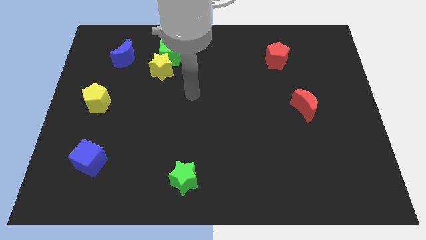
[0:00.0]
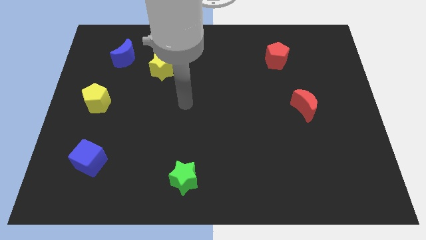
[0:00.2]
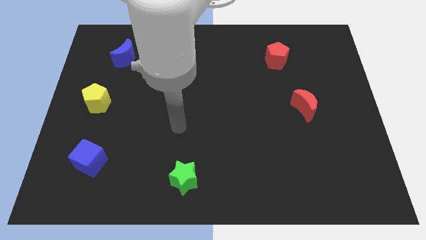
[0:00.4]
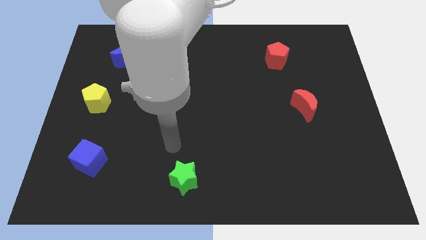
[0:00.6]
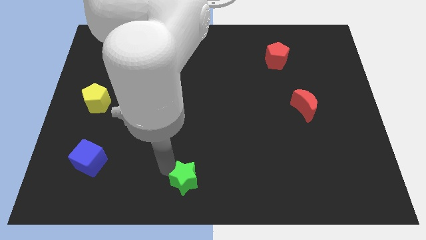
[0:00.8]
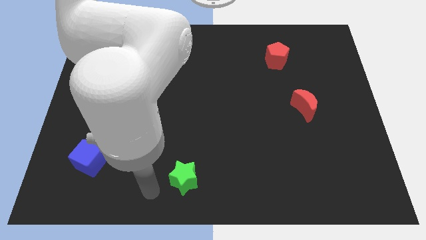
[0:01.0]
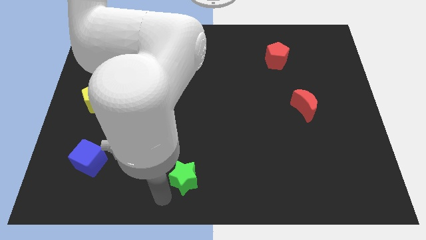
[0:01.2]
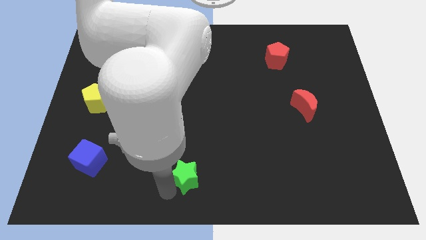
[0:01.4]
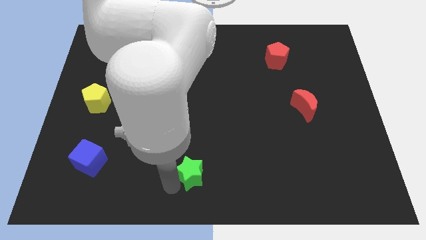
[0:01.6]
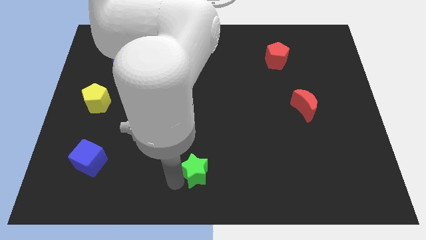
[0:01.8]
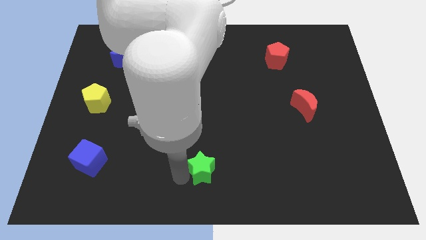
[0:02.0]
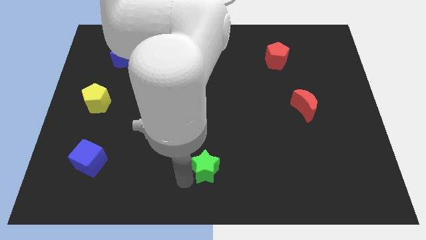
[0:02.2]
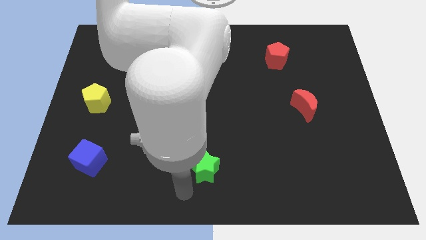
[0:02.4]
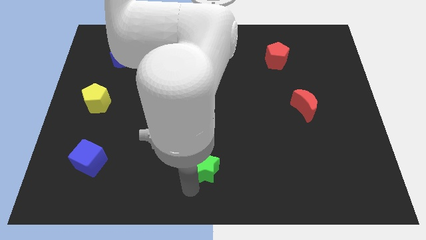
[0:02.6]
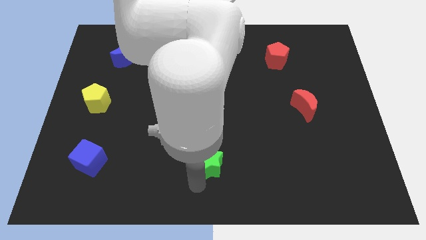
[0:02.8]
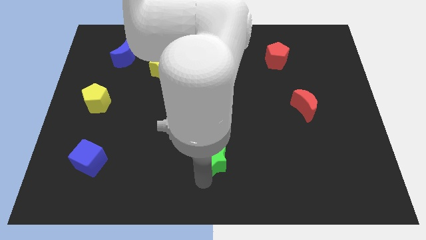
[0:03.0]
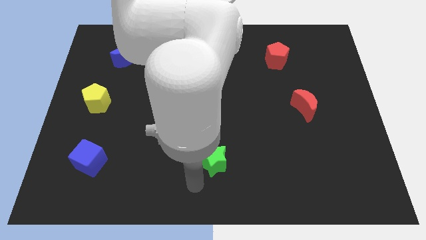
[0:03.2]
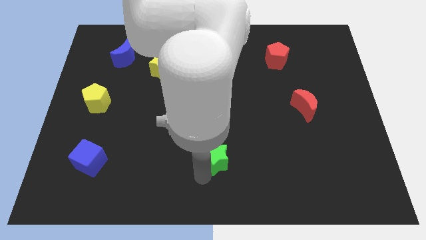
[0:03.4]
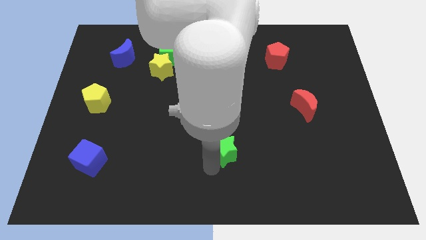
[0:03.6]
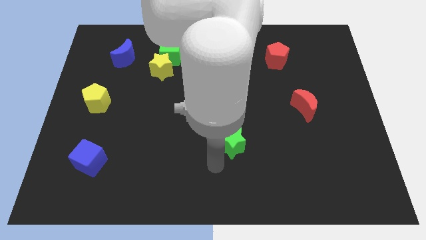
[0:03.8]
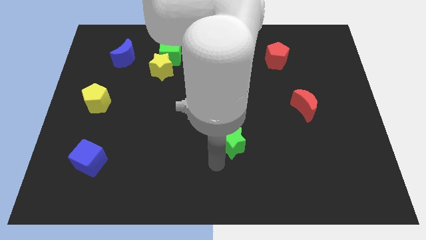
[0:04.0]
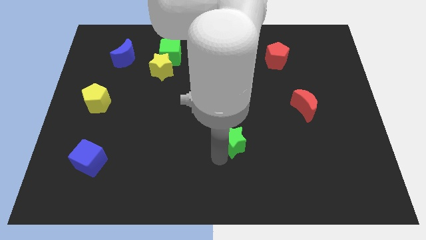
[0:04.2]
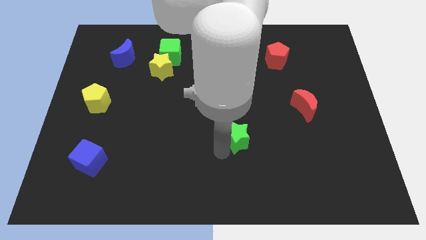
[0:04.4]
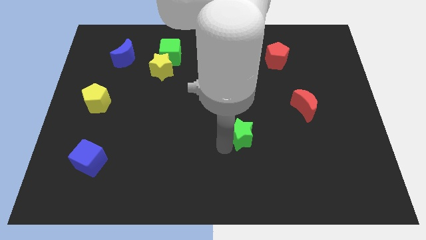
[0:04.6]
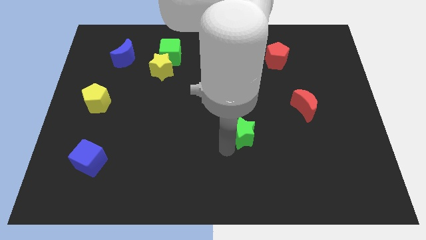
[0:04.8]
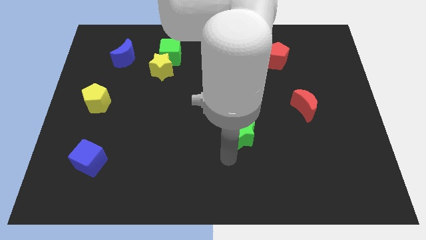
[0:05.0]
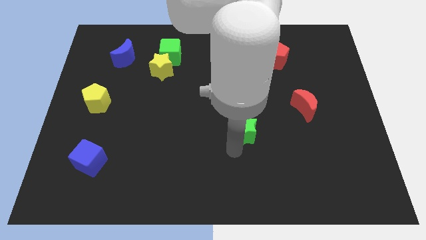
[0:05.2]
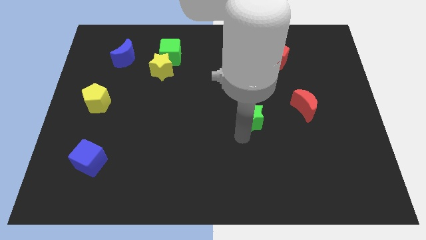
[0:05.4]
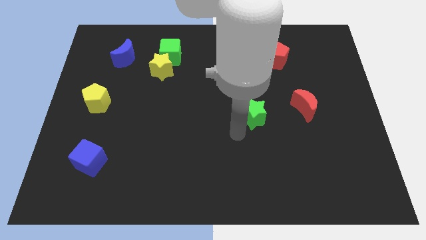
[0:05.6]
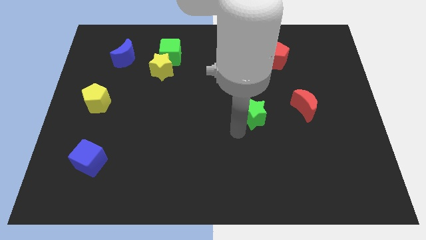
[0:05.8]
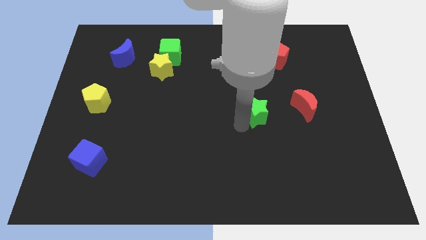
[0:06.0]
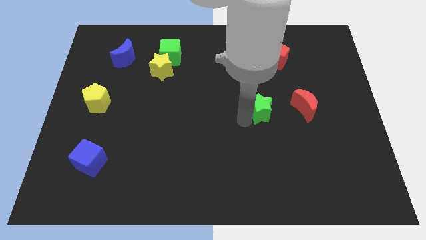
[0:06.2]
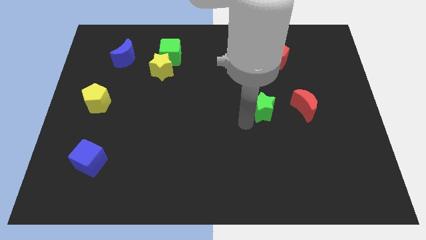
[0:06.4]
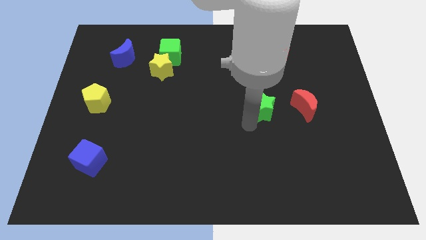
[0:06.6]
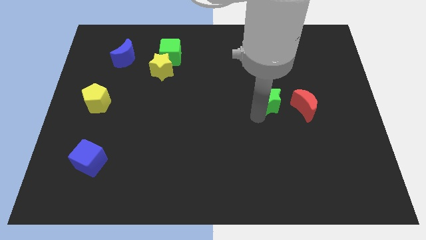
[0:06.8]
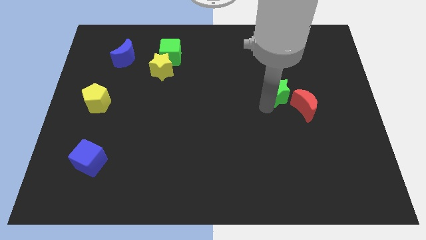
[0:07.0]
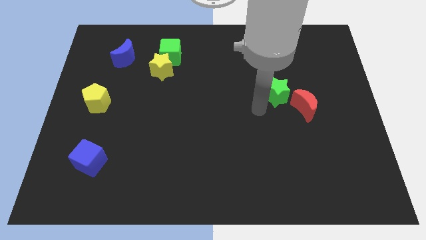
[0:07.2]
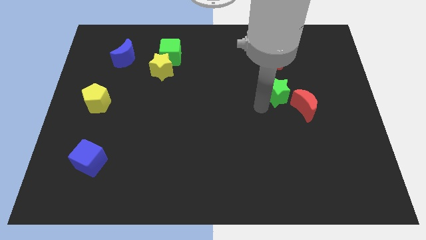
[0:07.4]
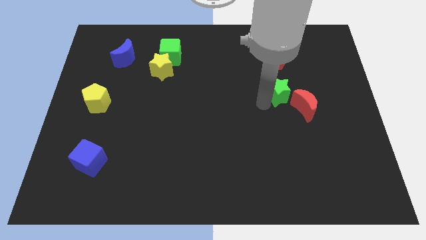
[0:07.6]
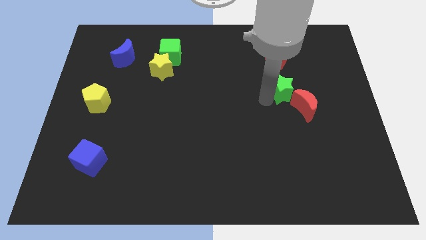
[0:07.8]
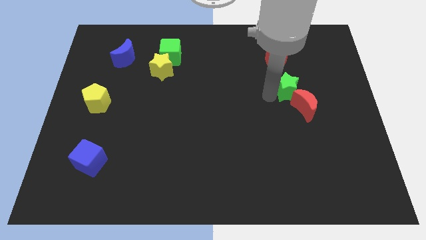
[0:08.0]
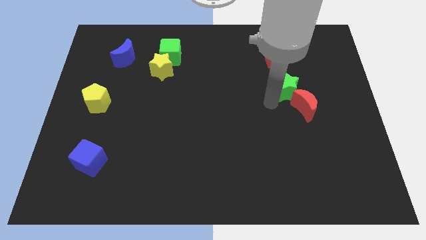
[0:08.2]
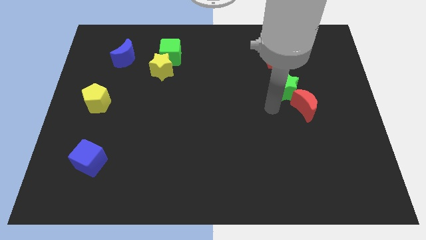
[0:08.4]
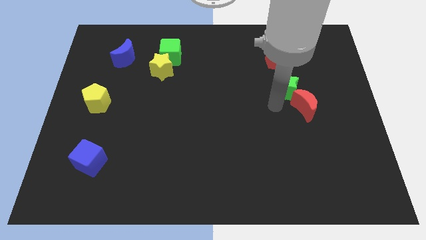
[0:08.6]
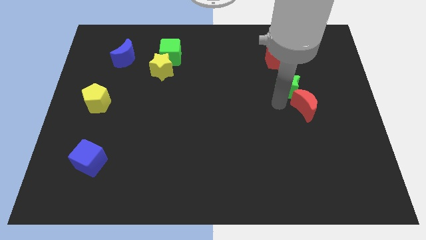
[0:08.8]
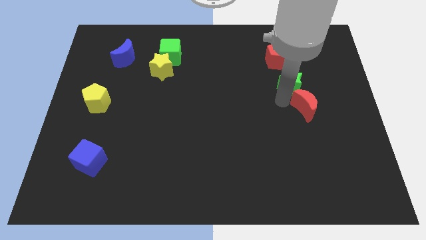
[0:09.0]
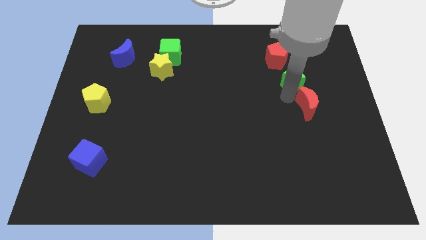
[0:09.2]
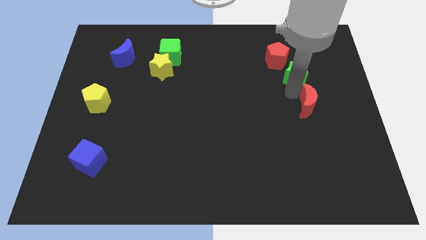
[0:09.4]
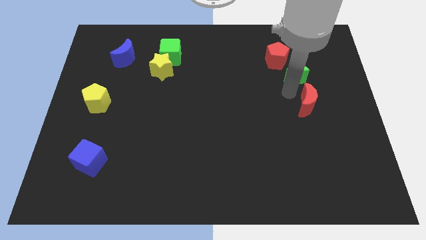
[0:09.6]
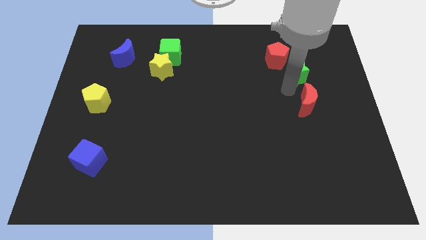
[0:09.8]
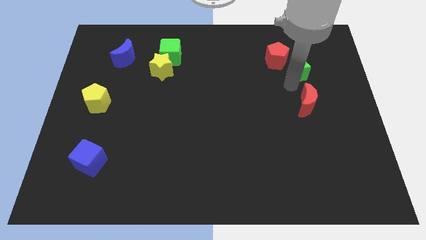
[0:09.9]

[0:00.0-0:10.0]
move the green star to the right side of the red pentagon

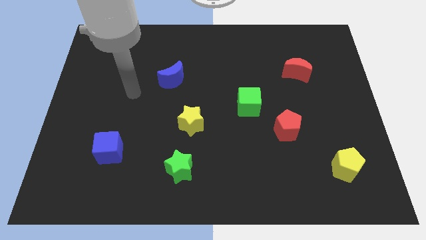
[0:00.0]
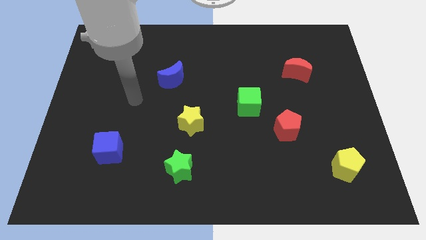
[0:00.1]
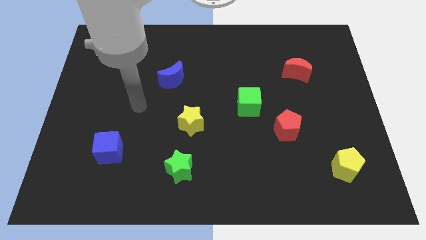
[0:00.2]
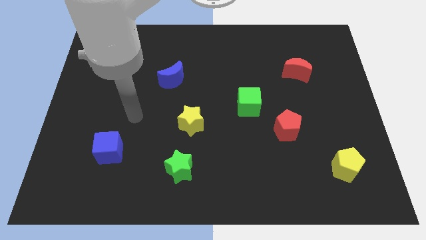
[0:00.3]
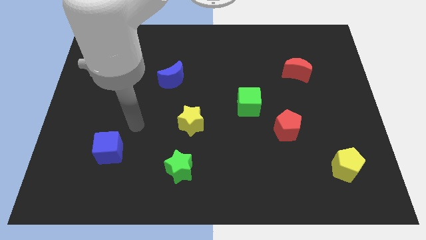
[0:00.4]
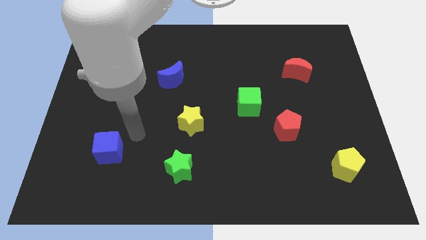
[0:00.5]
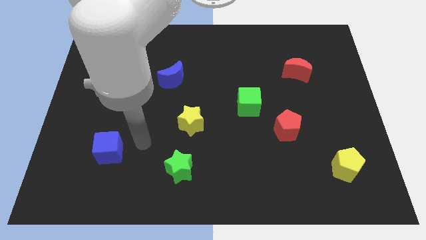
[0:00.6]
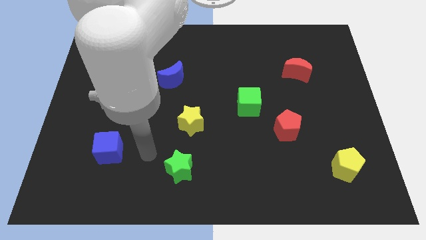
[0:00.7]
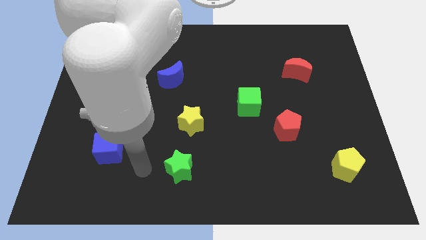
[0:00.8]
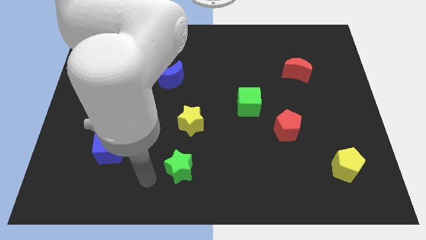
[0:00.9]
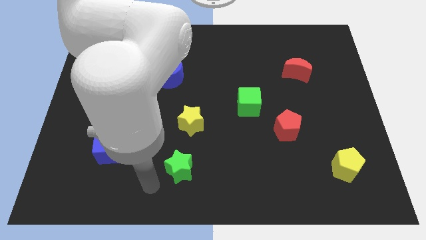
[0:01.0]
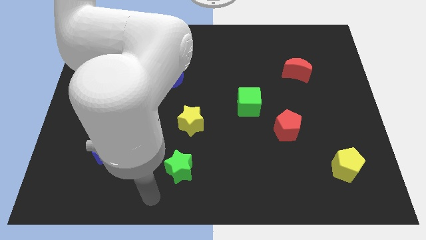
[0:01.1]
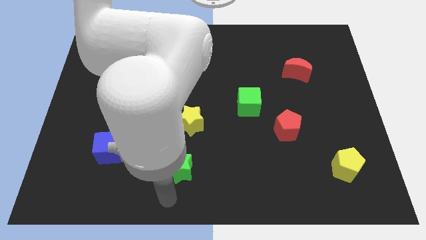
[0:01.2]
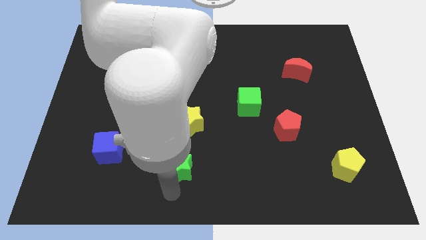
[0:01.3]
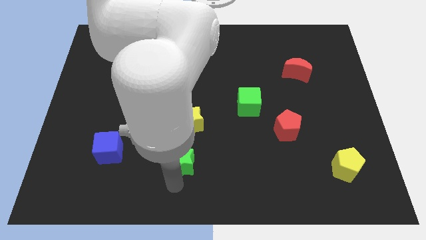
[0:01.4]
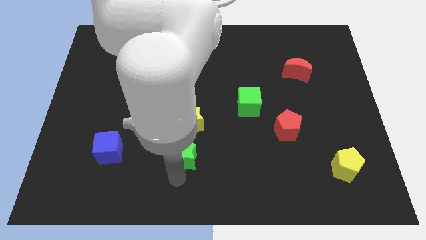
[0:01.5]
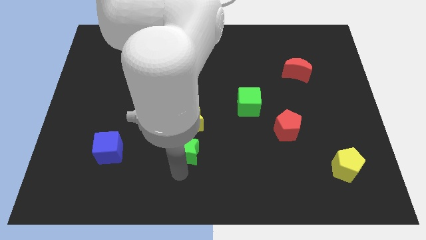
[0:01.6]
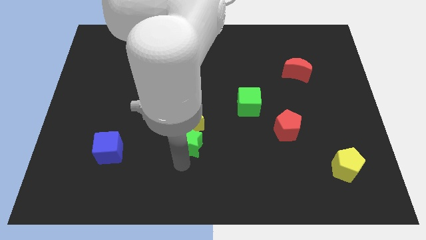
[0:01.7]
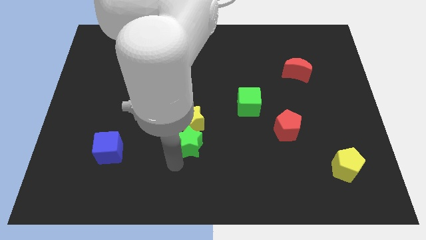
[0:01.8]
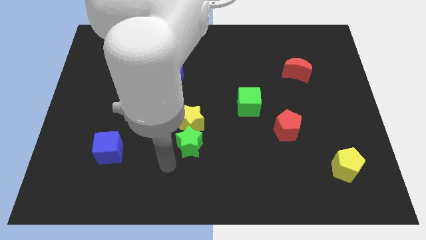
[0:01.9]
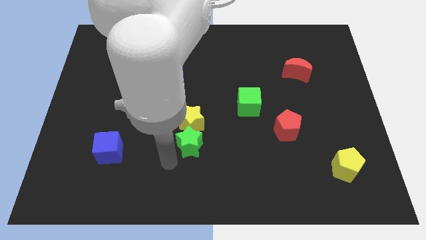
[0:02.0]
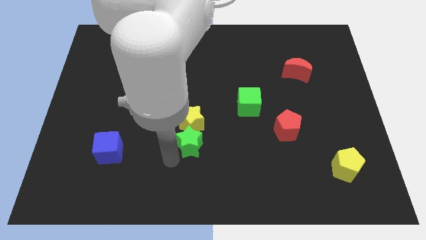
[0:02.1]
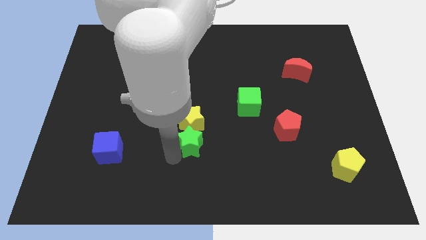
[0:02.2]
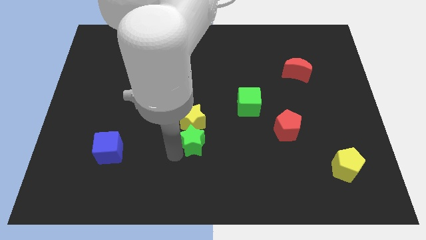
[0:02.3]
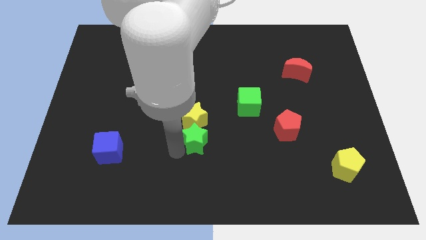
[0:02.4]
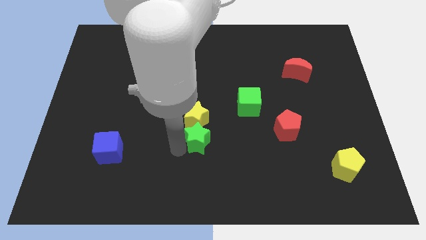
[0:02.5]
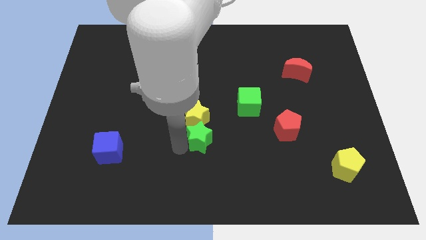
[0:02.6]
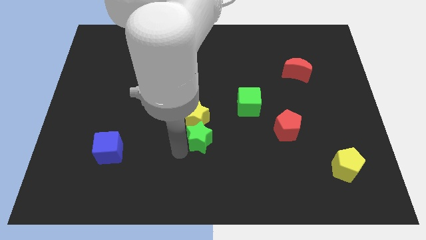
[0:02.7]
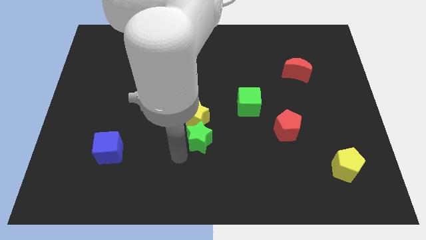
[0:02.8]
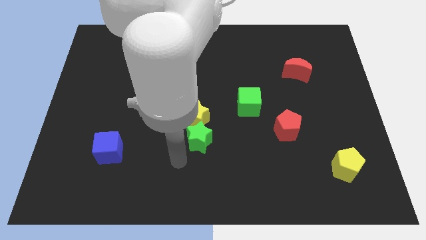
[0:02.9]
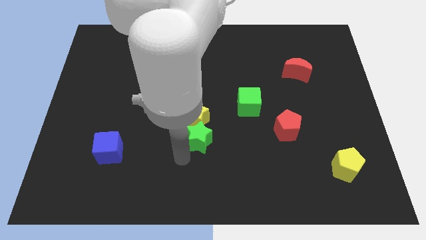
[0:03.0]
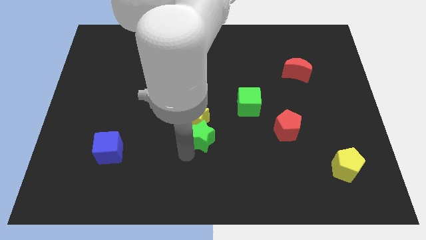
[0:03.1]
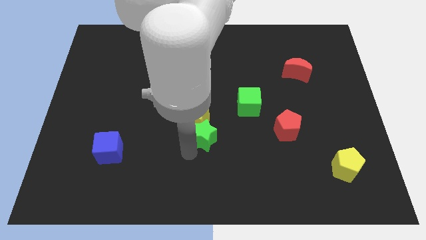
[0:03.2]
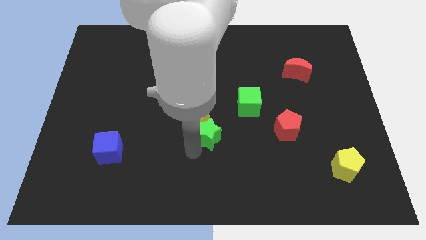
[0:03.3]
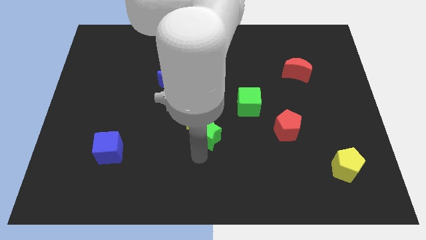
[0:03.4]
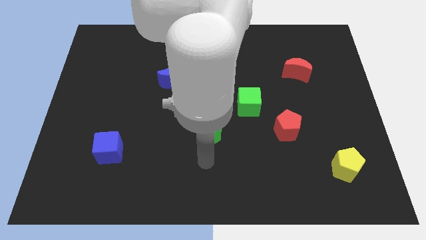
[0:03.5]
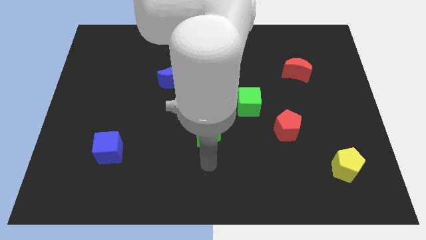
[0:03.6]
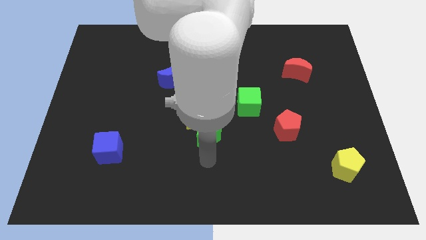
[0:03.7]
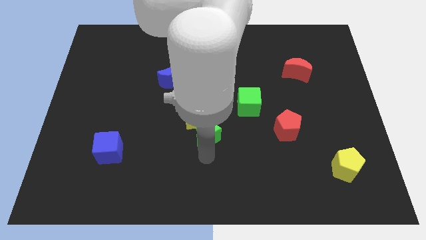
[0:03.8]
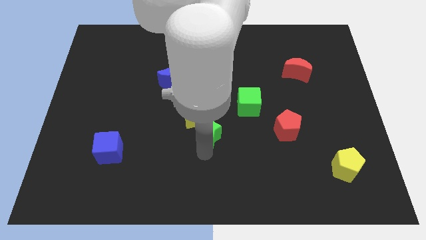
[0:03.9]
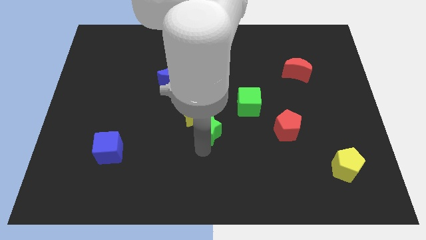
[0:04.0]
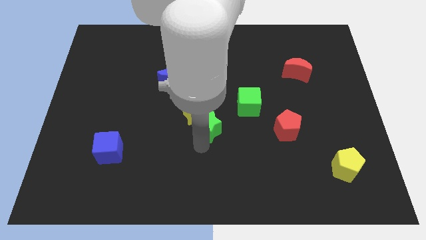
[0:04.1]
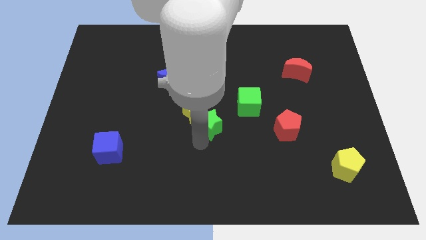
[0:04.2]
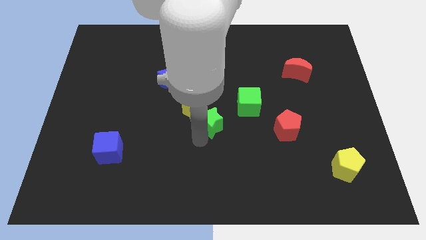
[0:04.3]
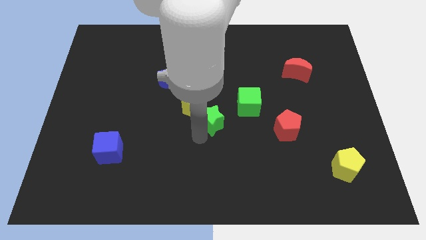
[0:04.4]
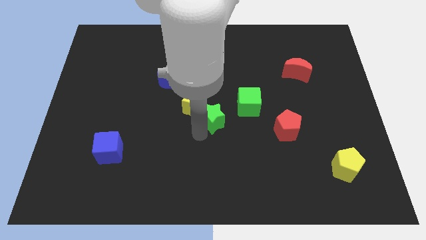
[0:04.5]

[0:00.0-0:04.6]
put the green star left of the green cube
